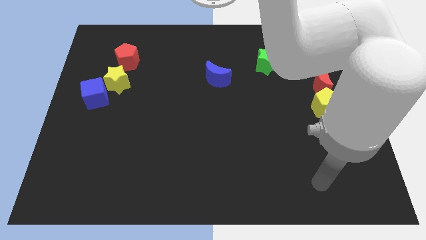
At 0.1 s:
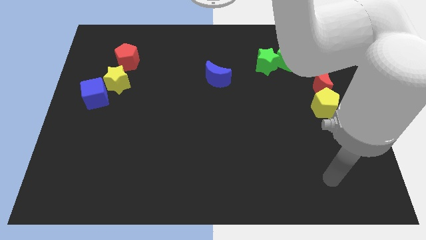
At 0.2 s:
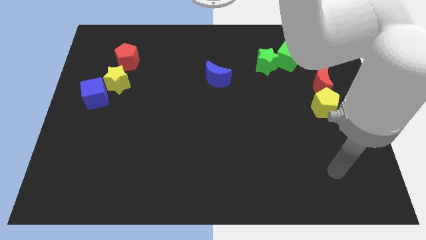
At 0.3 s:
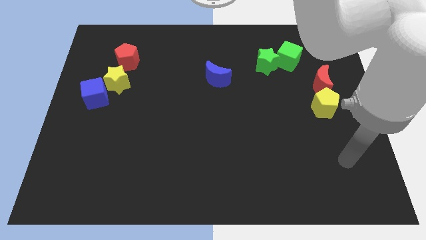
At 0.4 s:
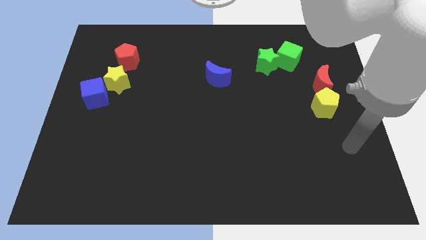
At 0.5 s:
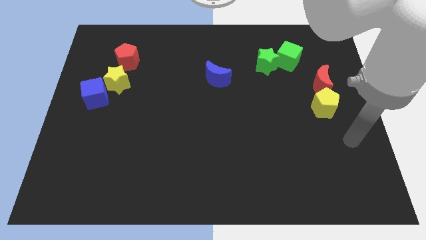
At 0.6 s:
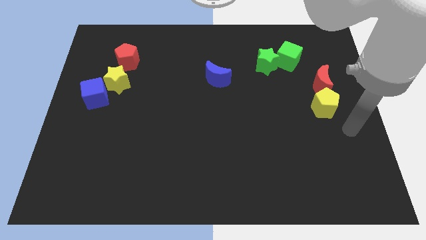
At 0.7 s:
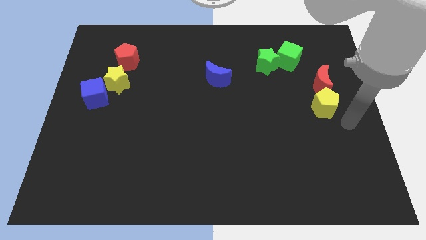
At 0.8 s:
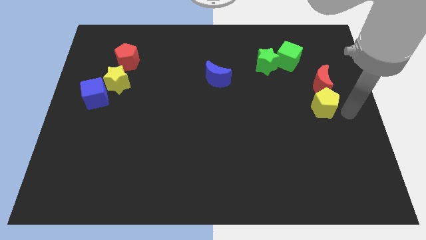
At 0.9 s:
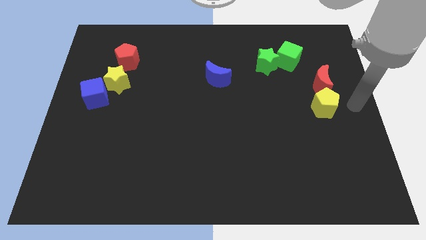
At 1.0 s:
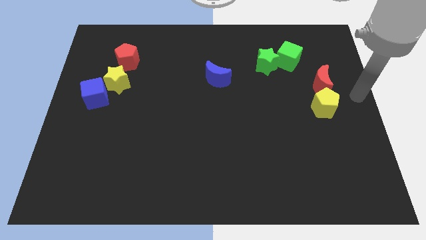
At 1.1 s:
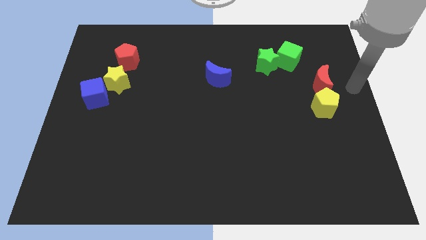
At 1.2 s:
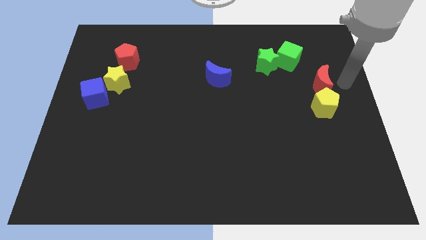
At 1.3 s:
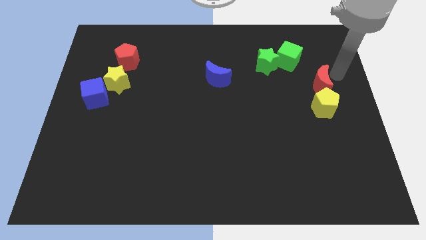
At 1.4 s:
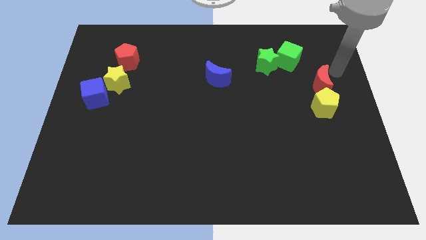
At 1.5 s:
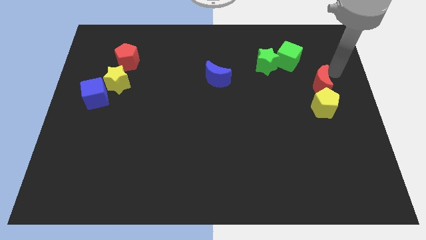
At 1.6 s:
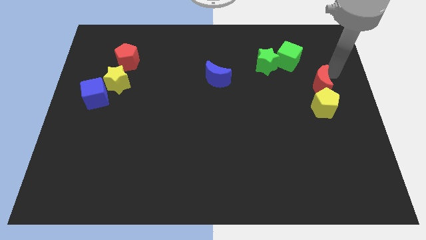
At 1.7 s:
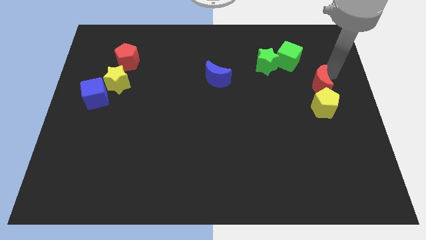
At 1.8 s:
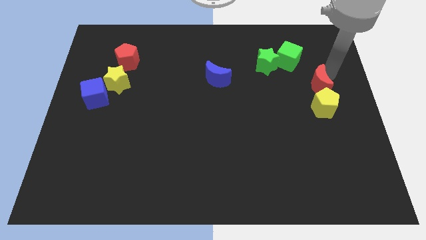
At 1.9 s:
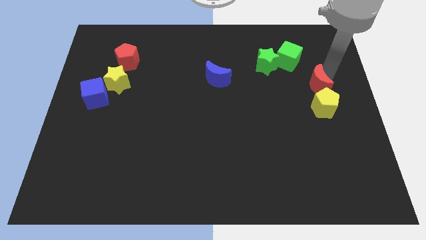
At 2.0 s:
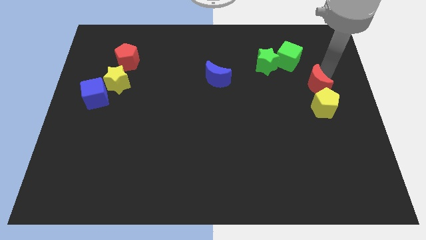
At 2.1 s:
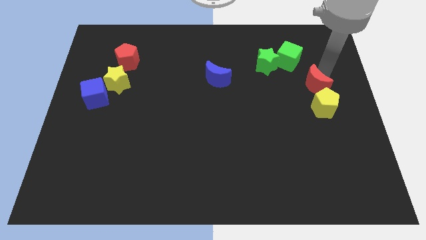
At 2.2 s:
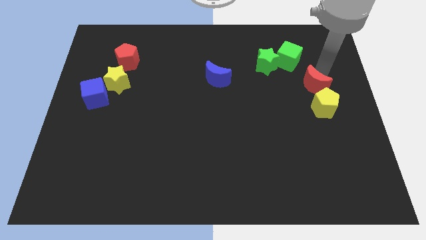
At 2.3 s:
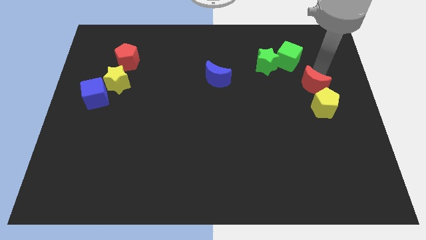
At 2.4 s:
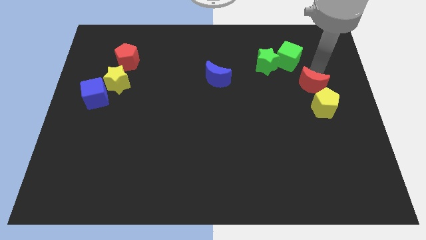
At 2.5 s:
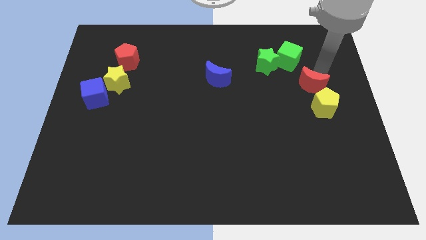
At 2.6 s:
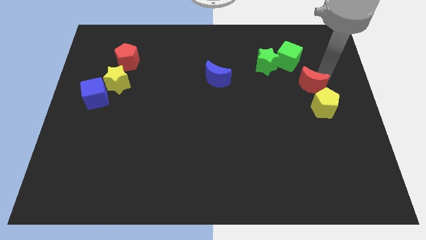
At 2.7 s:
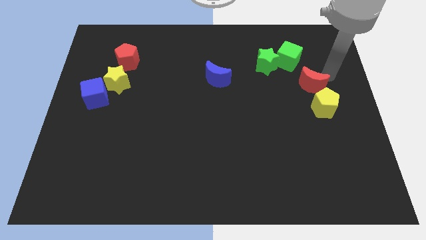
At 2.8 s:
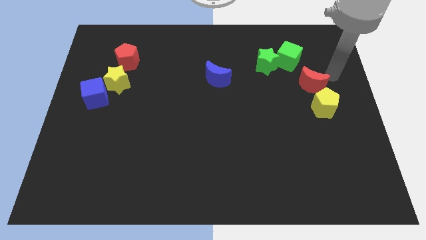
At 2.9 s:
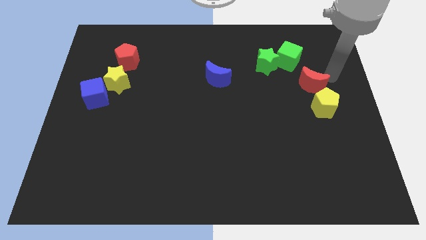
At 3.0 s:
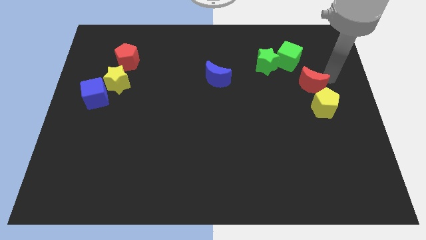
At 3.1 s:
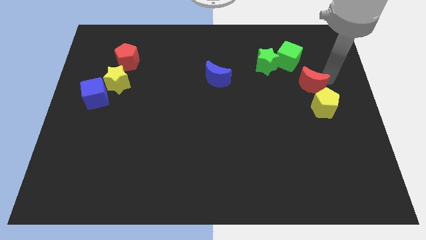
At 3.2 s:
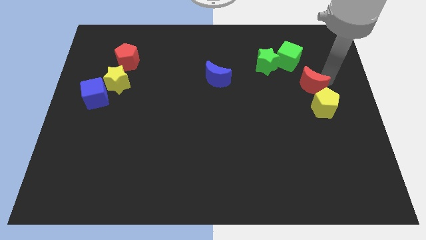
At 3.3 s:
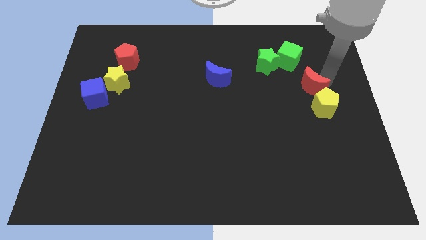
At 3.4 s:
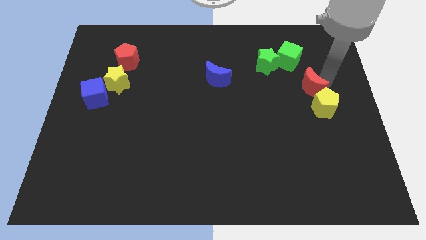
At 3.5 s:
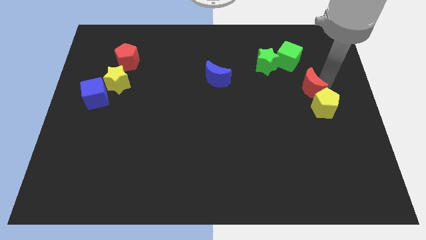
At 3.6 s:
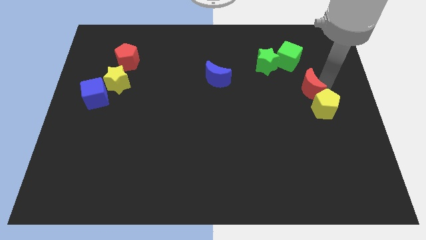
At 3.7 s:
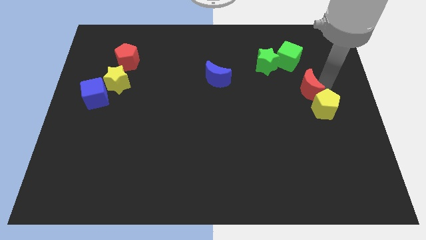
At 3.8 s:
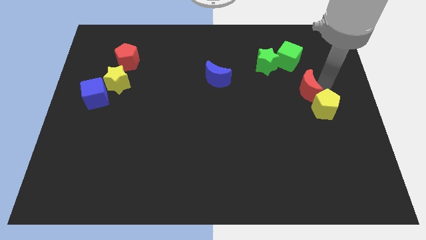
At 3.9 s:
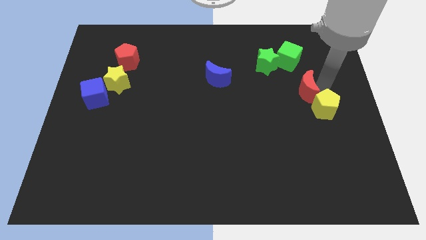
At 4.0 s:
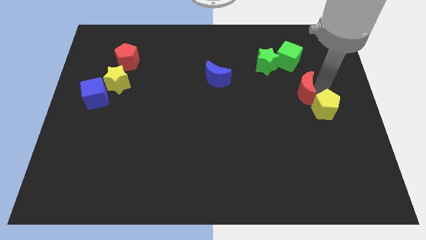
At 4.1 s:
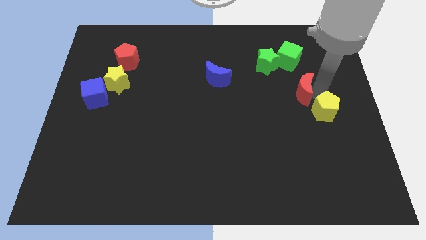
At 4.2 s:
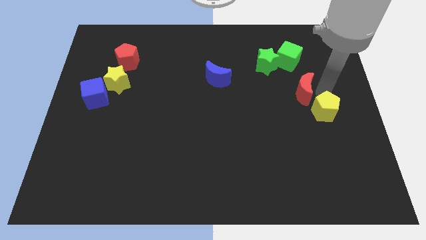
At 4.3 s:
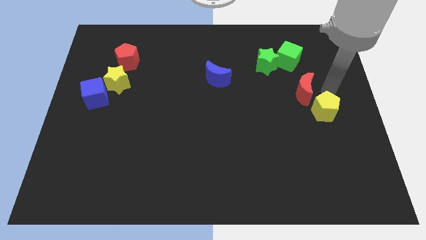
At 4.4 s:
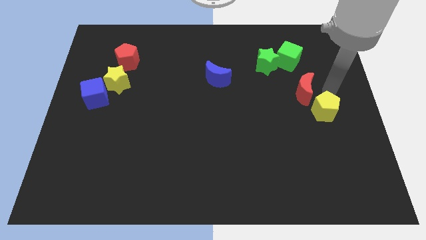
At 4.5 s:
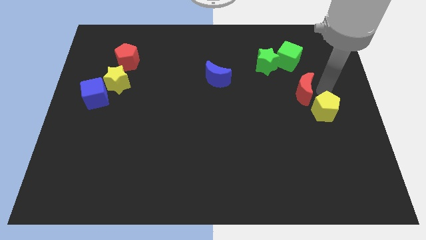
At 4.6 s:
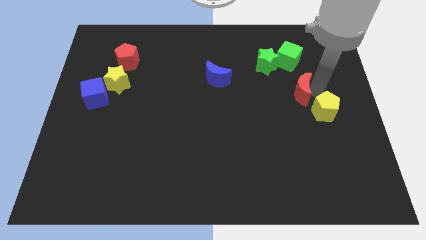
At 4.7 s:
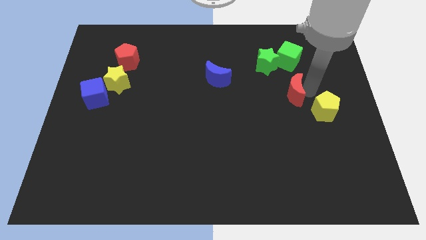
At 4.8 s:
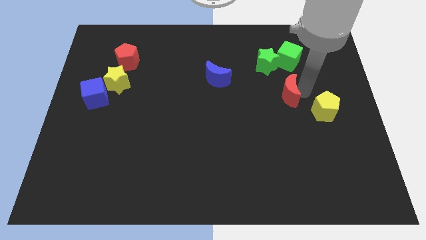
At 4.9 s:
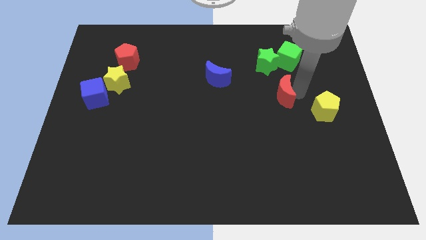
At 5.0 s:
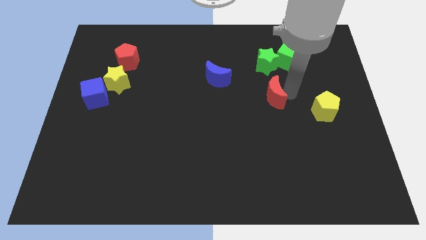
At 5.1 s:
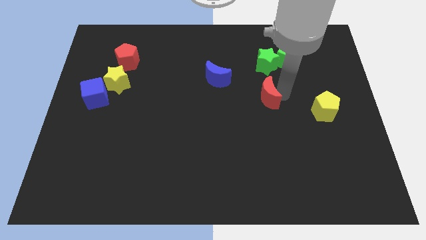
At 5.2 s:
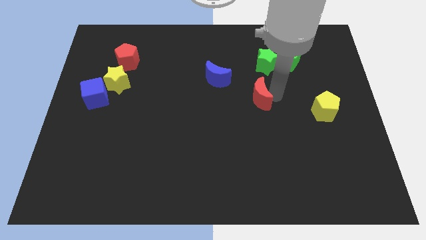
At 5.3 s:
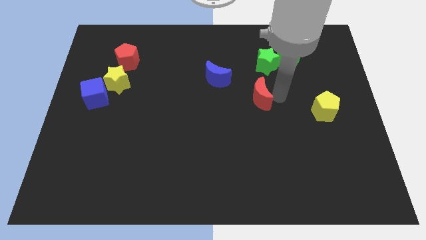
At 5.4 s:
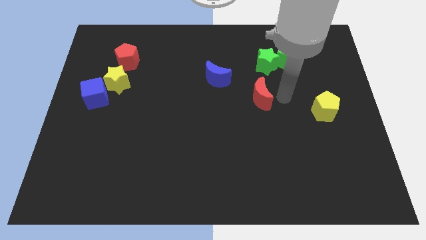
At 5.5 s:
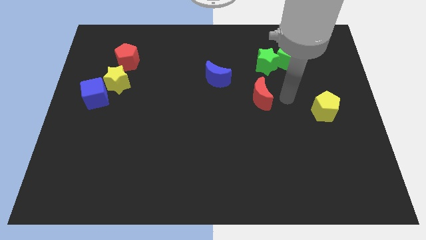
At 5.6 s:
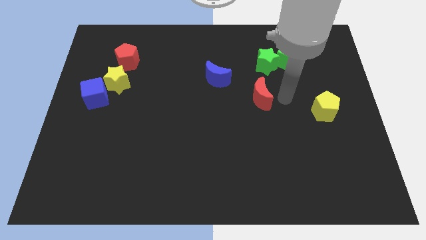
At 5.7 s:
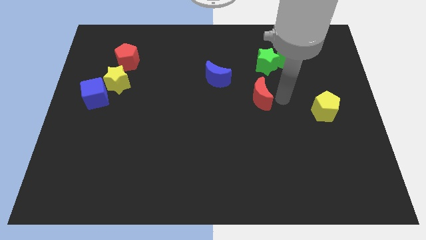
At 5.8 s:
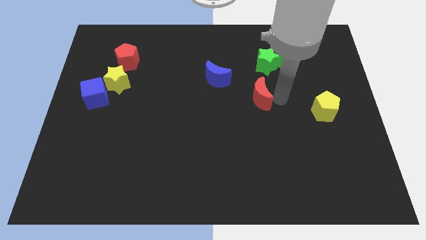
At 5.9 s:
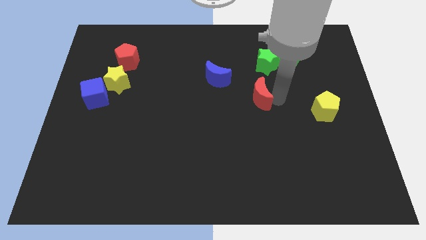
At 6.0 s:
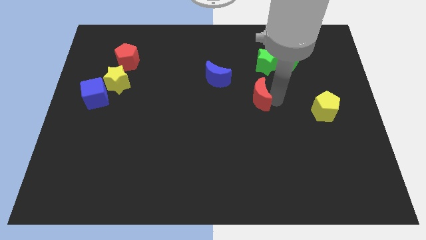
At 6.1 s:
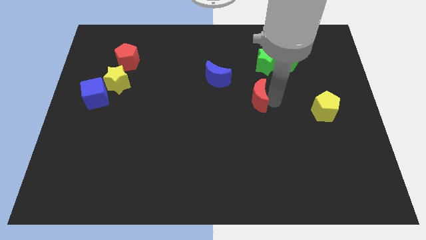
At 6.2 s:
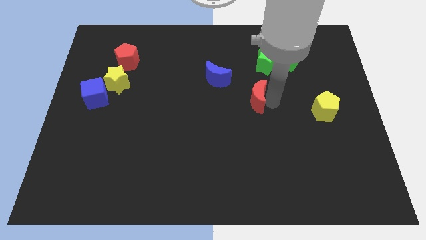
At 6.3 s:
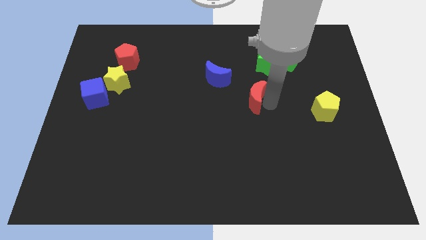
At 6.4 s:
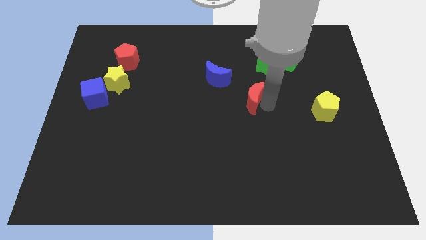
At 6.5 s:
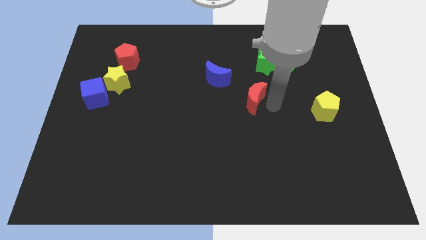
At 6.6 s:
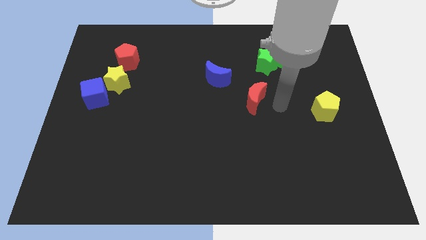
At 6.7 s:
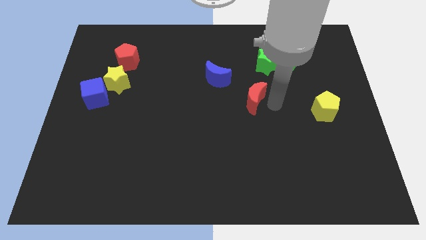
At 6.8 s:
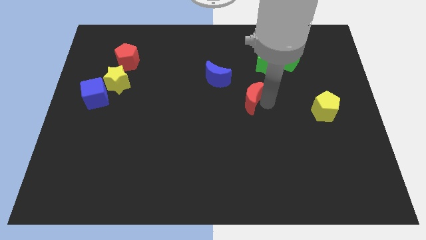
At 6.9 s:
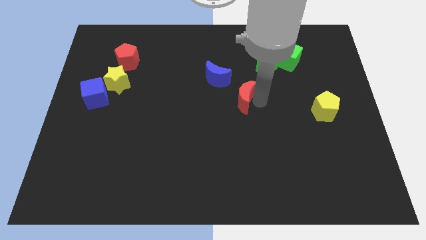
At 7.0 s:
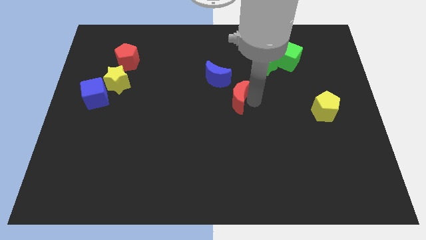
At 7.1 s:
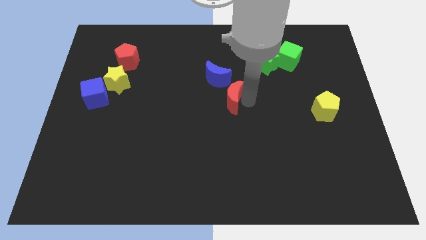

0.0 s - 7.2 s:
slide the red moon to the left

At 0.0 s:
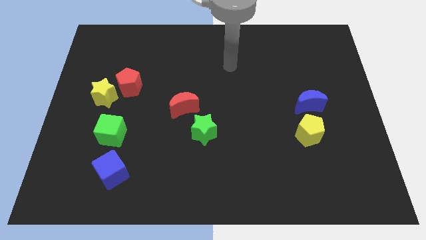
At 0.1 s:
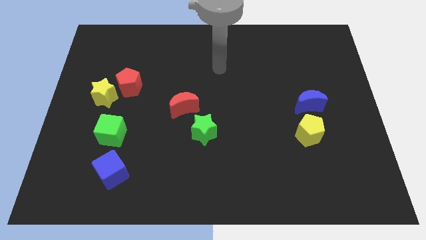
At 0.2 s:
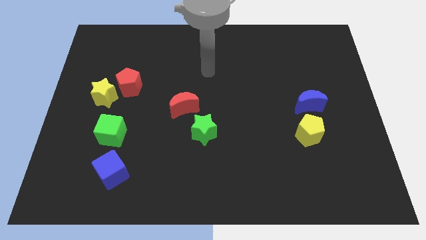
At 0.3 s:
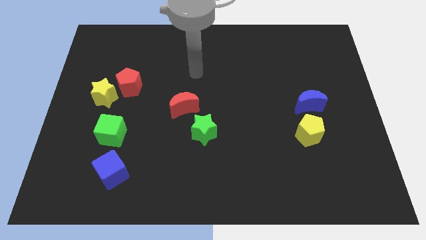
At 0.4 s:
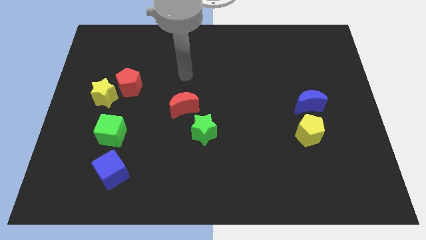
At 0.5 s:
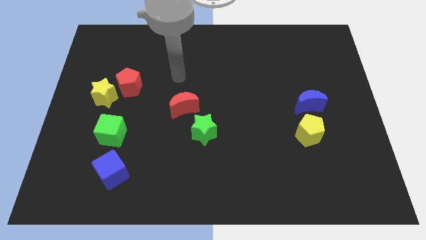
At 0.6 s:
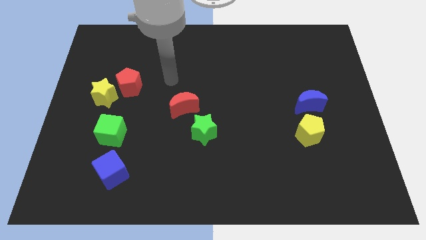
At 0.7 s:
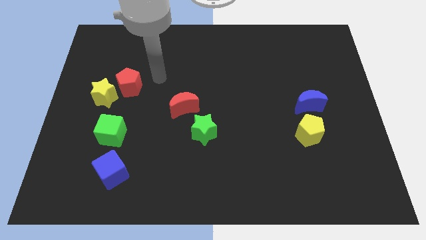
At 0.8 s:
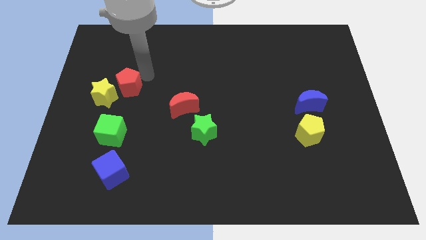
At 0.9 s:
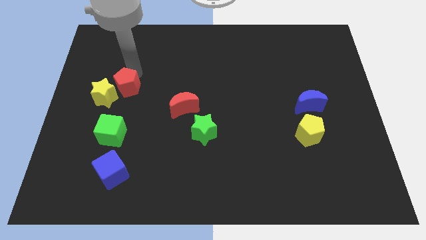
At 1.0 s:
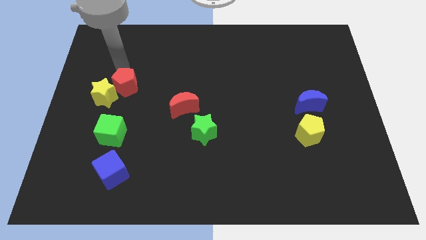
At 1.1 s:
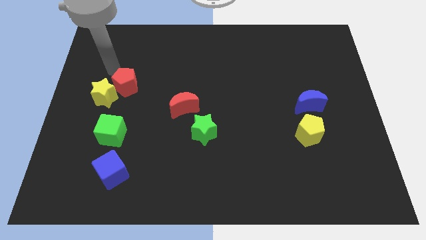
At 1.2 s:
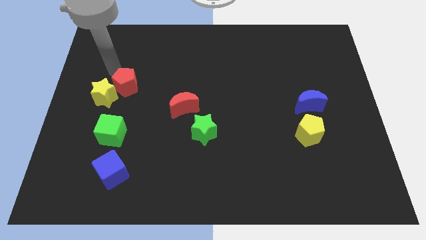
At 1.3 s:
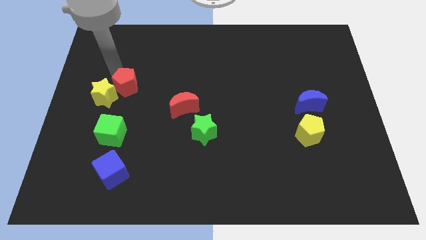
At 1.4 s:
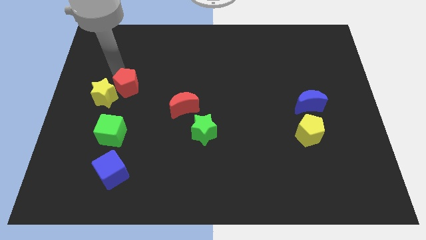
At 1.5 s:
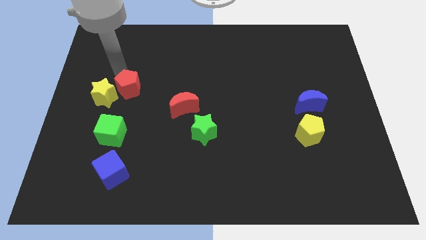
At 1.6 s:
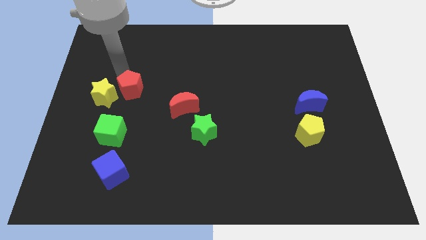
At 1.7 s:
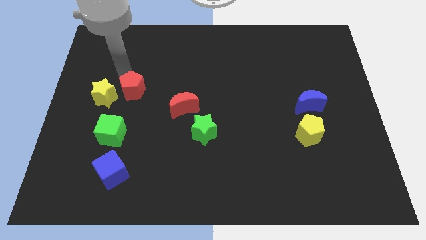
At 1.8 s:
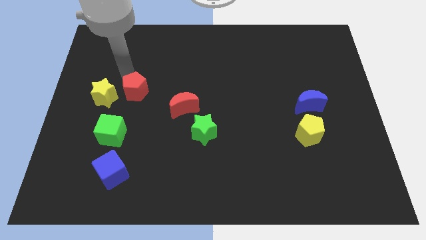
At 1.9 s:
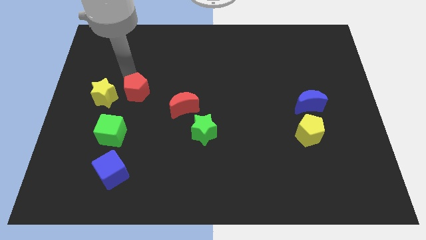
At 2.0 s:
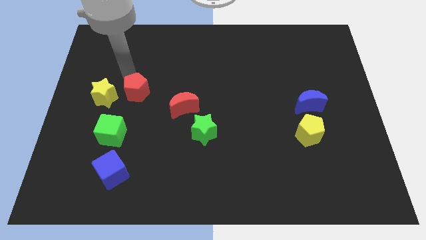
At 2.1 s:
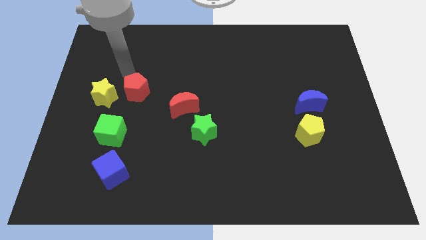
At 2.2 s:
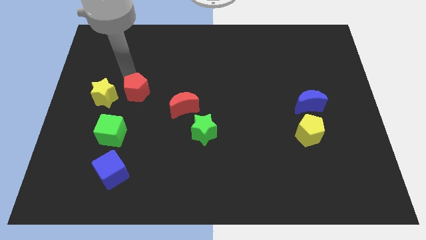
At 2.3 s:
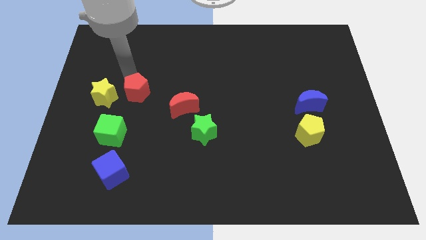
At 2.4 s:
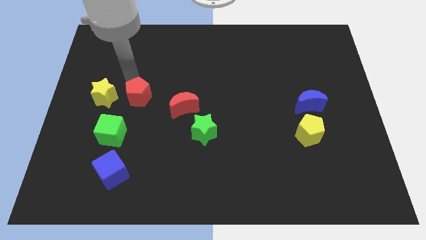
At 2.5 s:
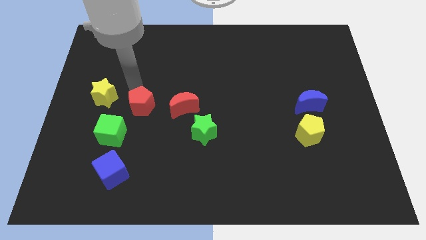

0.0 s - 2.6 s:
push the red pentagon down and then to the right slightly
